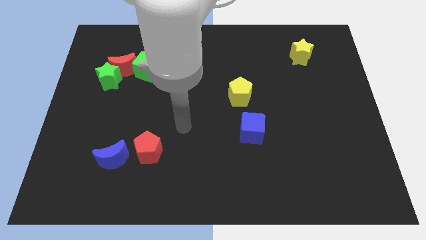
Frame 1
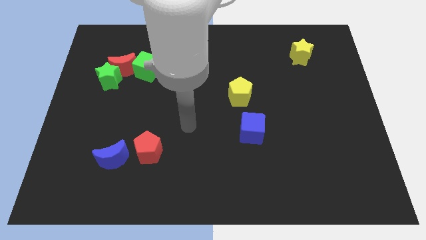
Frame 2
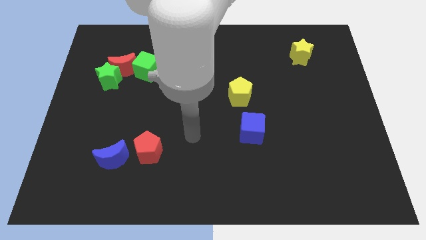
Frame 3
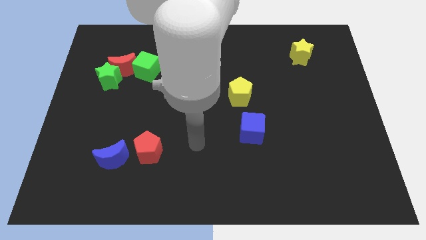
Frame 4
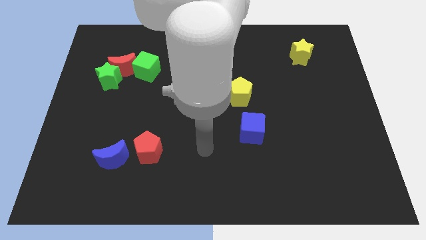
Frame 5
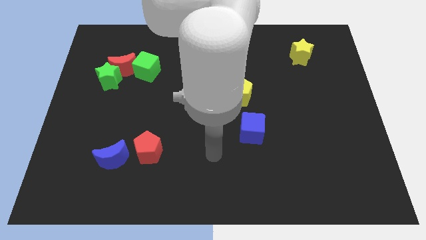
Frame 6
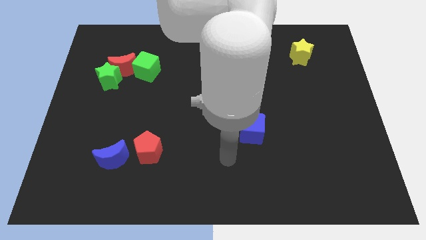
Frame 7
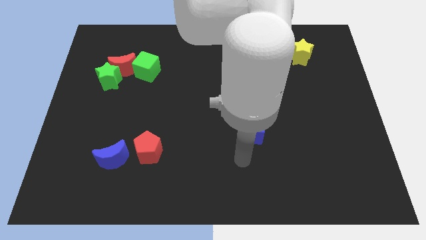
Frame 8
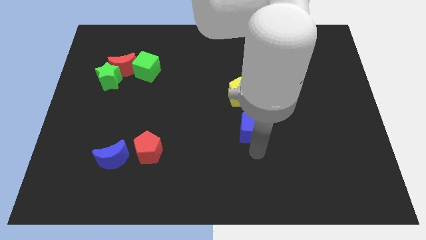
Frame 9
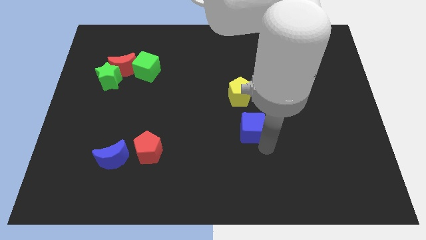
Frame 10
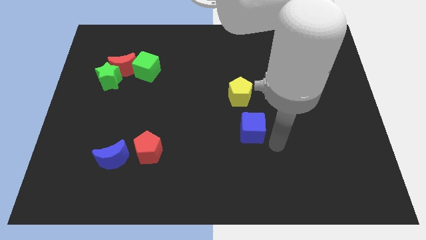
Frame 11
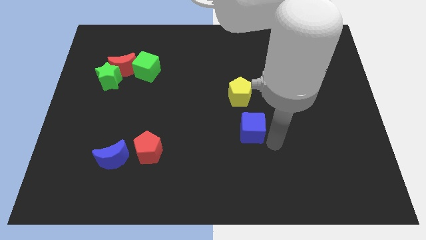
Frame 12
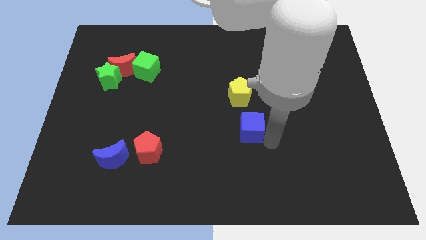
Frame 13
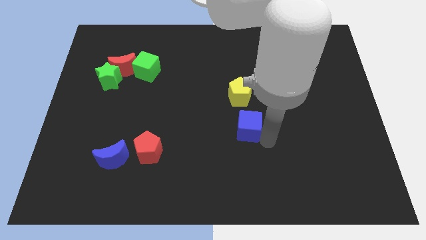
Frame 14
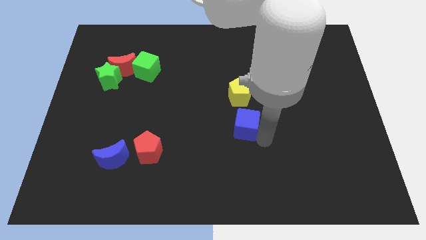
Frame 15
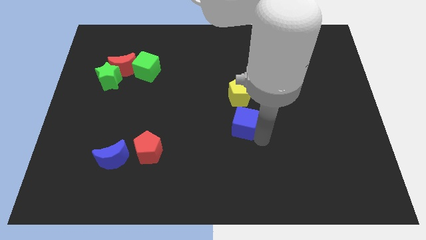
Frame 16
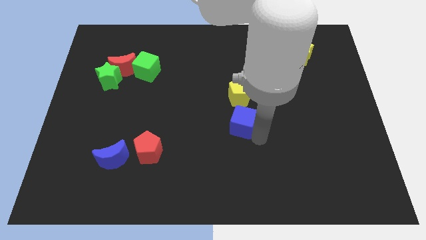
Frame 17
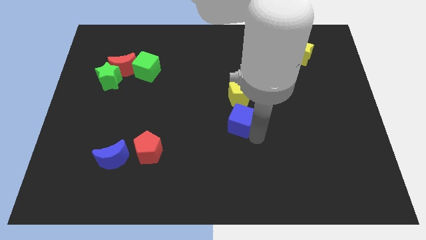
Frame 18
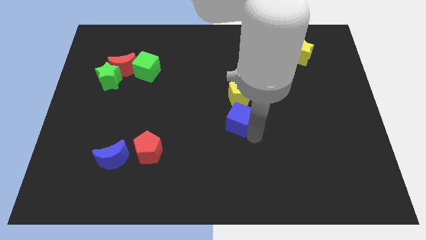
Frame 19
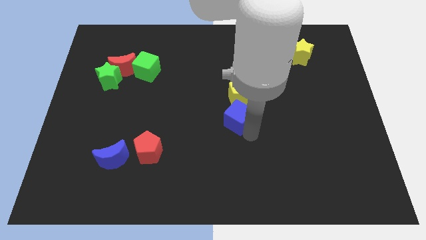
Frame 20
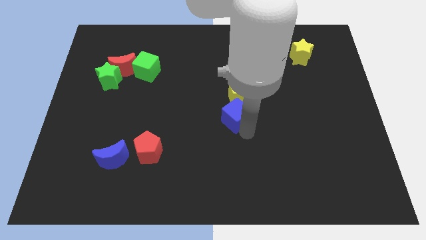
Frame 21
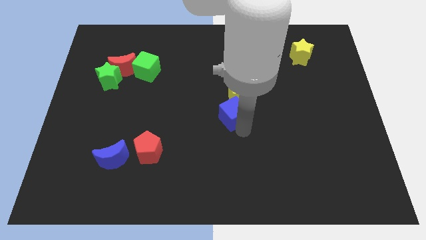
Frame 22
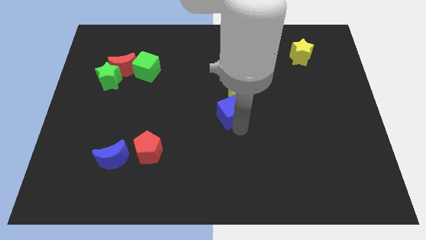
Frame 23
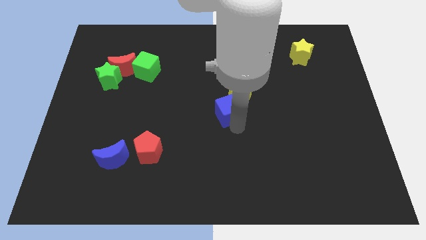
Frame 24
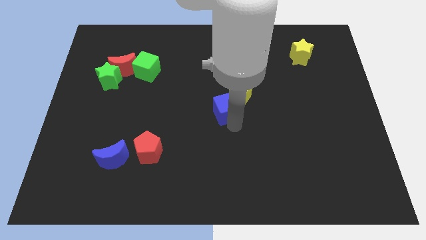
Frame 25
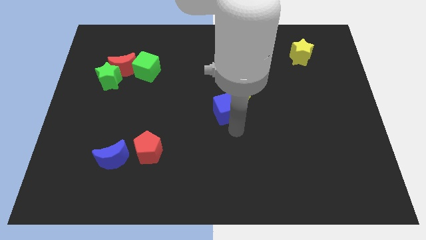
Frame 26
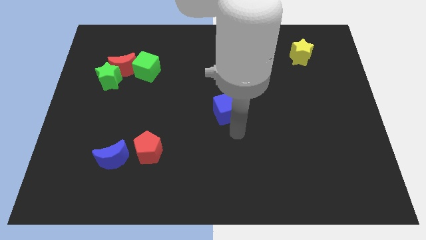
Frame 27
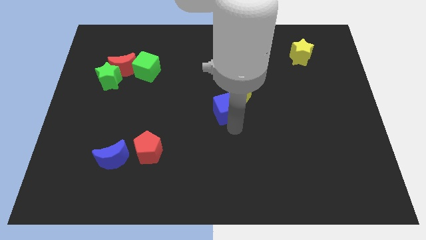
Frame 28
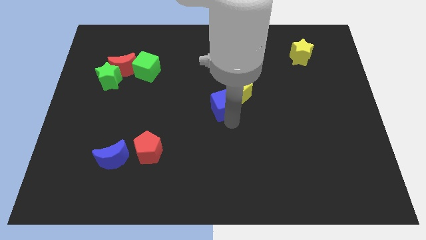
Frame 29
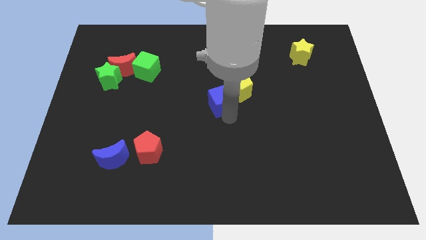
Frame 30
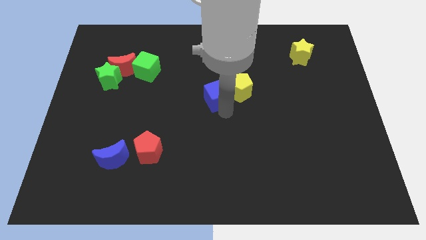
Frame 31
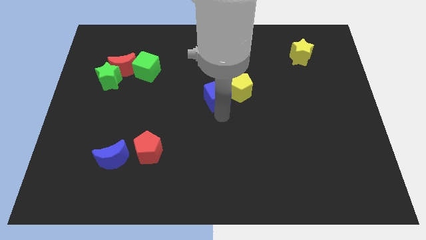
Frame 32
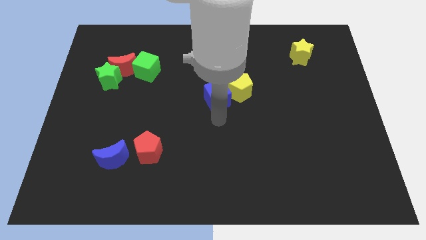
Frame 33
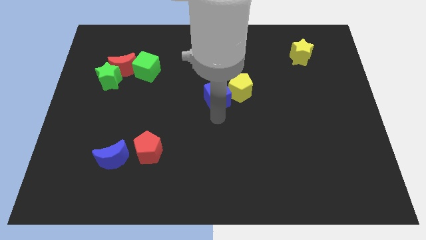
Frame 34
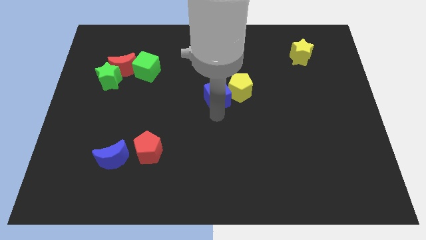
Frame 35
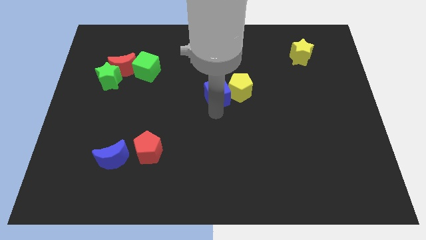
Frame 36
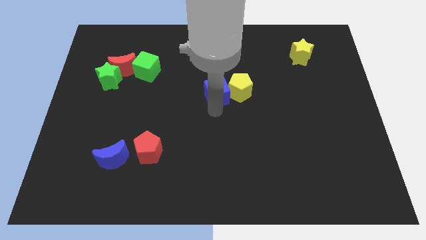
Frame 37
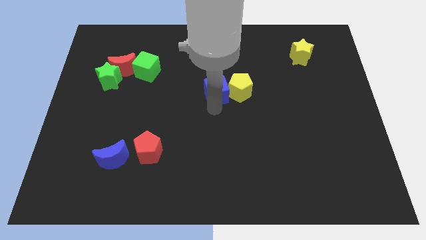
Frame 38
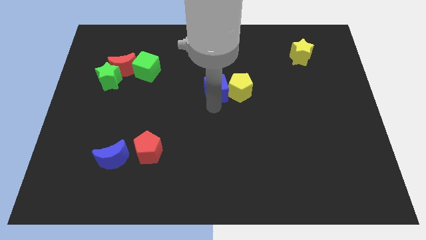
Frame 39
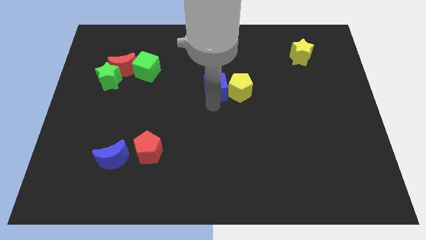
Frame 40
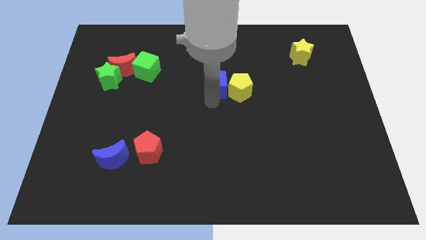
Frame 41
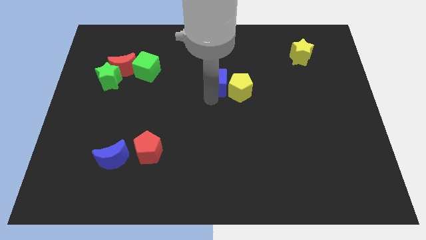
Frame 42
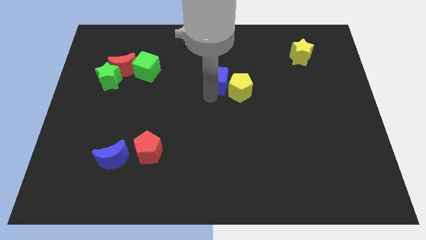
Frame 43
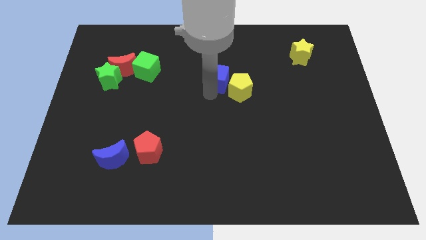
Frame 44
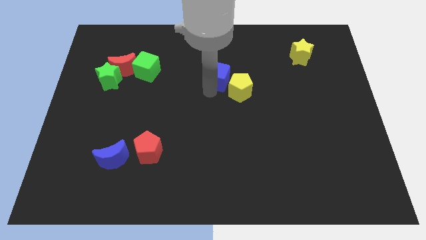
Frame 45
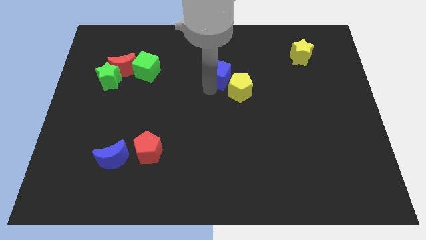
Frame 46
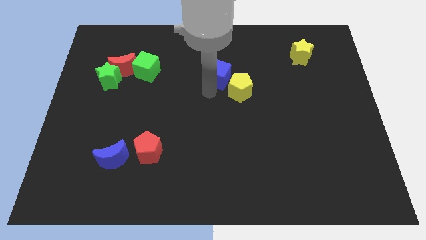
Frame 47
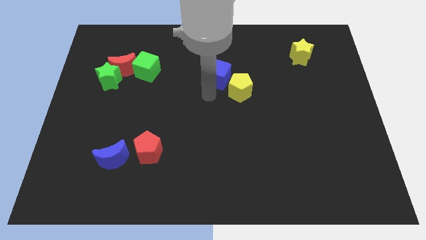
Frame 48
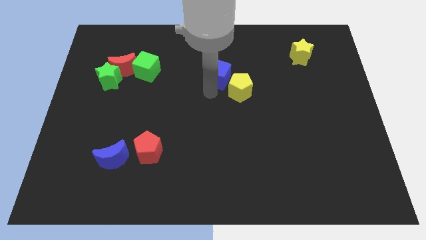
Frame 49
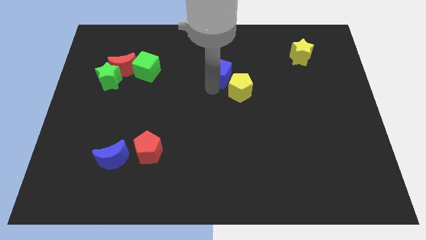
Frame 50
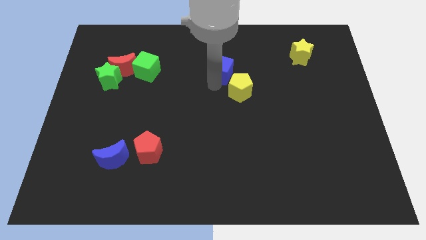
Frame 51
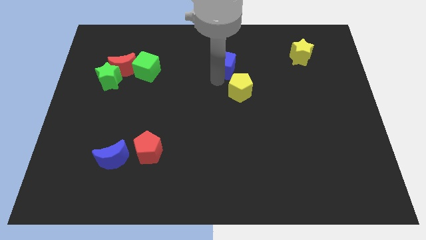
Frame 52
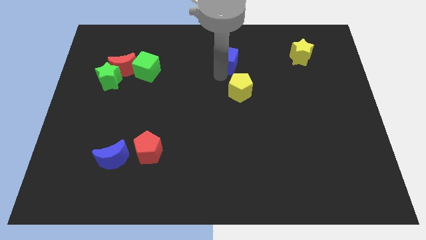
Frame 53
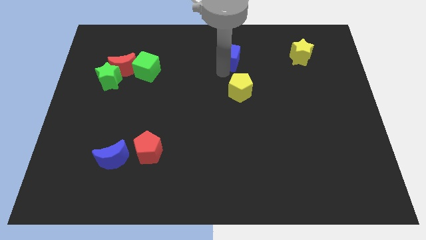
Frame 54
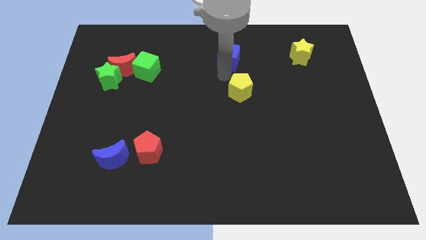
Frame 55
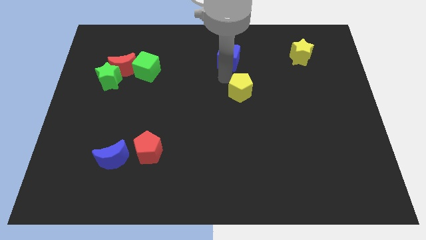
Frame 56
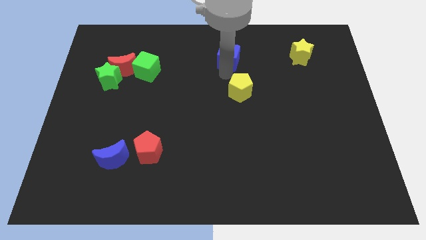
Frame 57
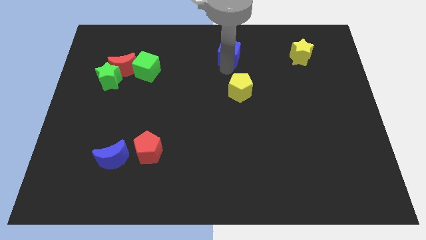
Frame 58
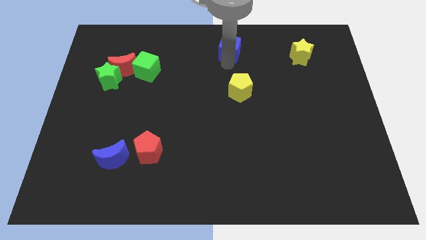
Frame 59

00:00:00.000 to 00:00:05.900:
push the blue cube to the top side
